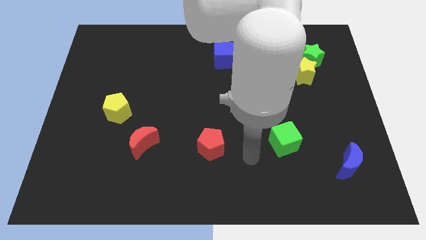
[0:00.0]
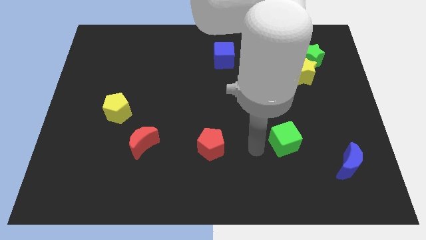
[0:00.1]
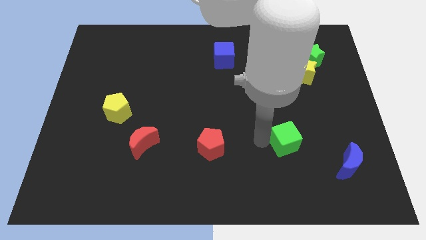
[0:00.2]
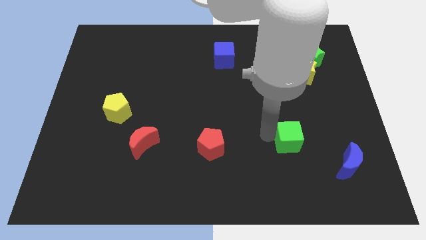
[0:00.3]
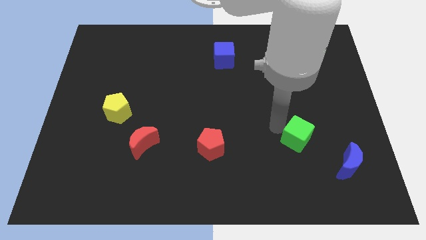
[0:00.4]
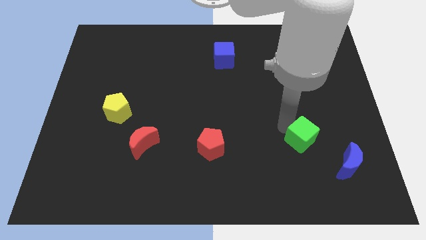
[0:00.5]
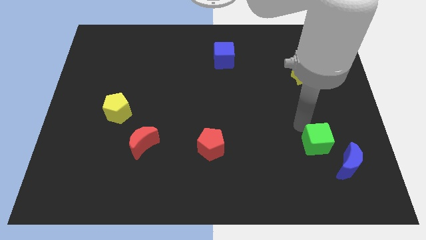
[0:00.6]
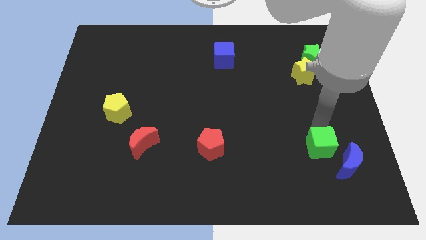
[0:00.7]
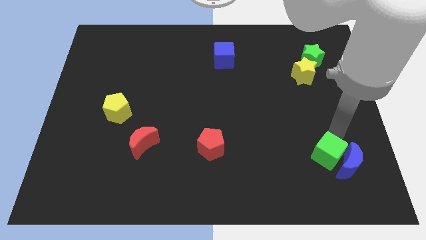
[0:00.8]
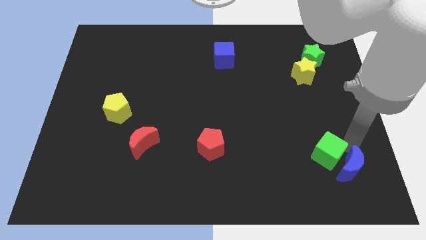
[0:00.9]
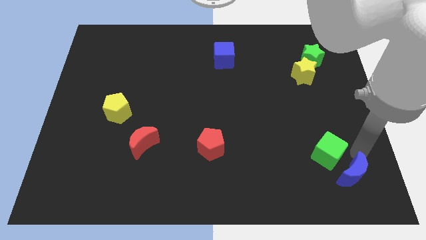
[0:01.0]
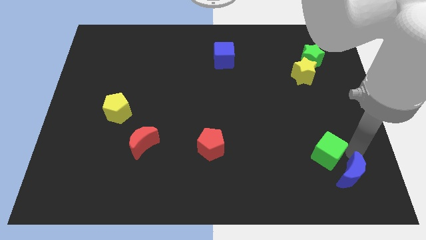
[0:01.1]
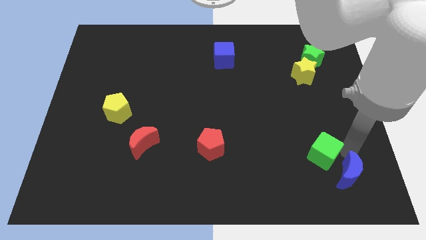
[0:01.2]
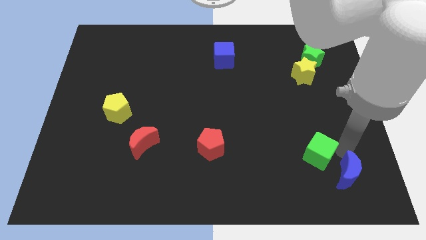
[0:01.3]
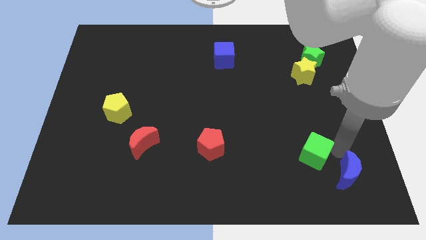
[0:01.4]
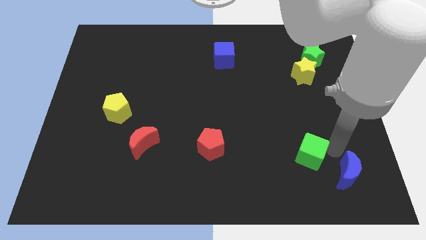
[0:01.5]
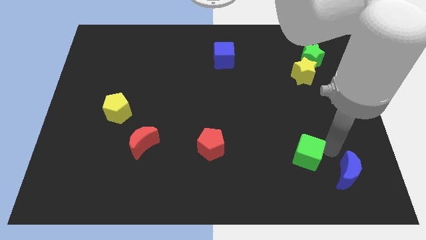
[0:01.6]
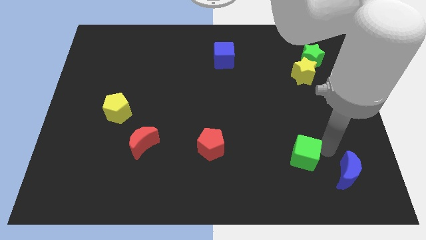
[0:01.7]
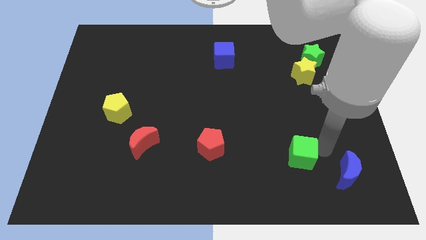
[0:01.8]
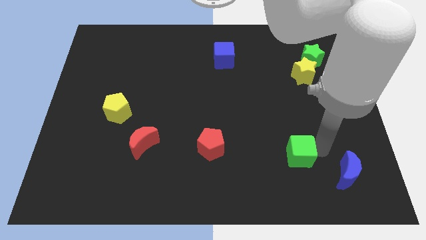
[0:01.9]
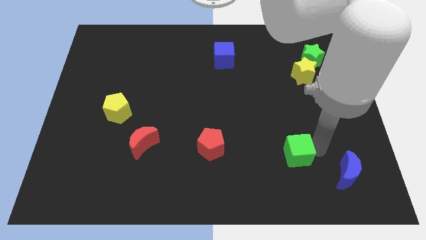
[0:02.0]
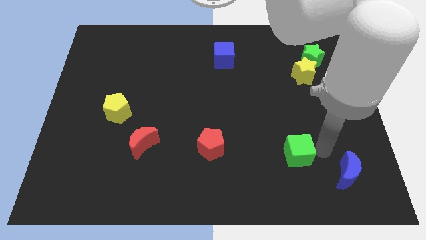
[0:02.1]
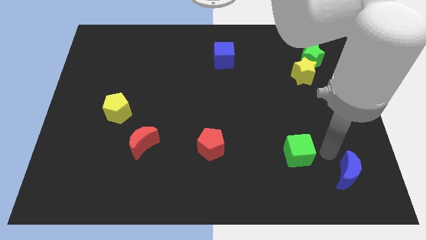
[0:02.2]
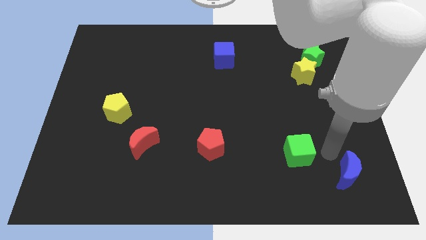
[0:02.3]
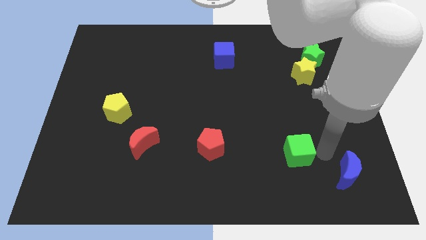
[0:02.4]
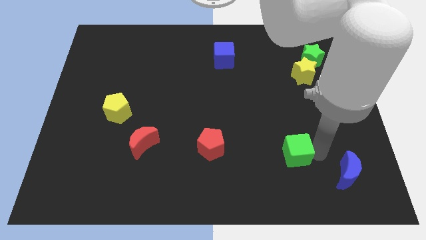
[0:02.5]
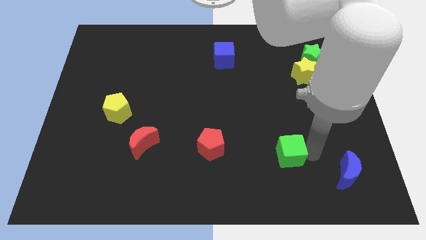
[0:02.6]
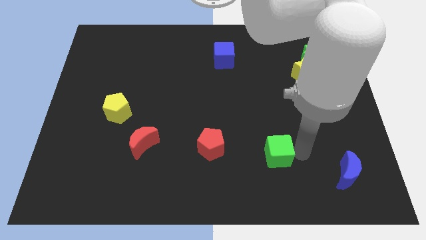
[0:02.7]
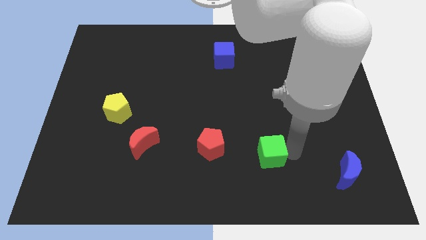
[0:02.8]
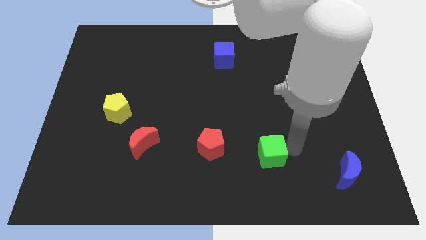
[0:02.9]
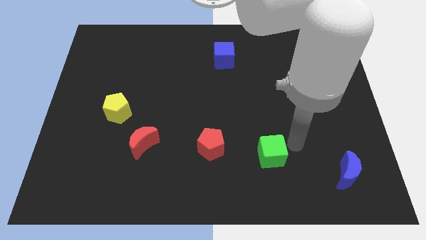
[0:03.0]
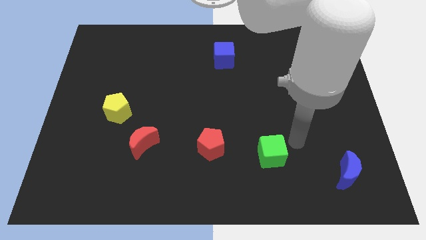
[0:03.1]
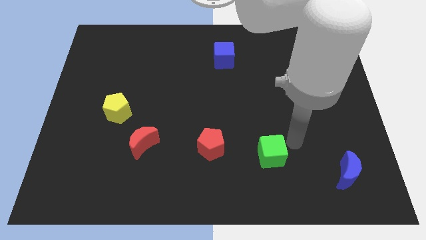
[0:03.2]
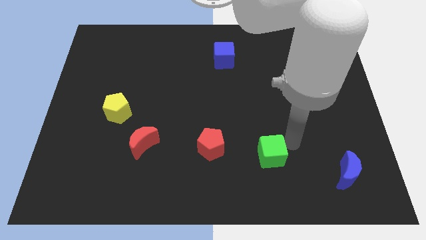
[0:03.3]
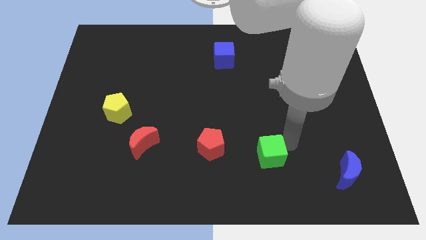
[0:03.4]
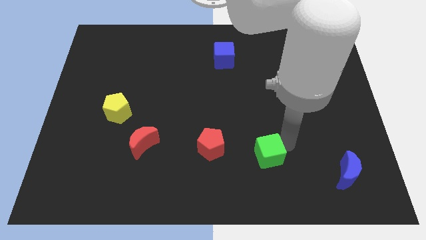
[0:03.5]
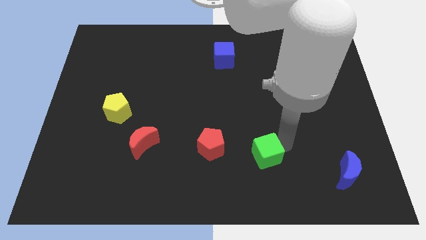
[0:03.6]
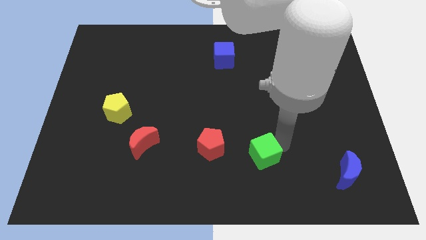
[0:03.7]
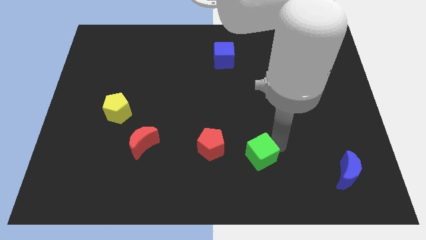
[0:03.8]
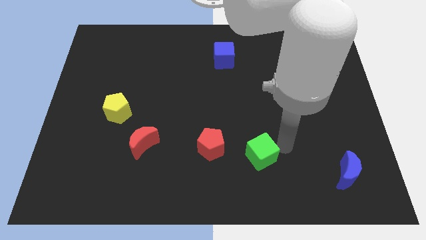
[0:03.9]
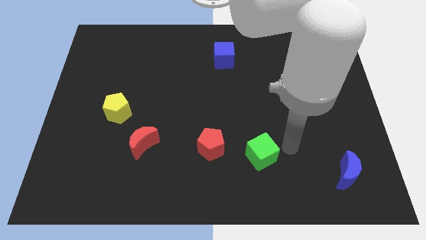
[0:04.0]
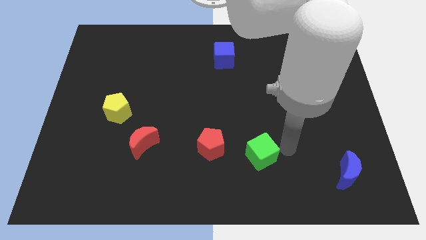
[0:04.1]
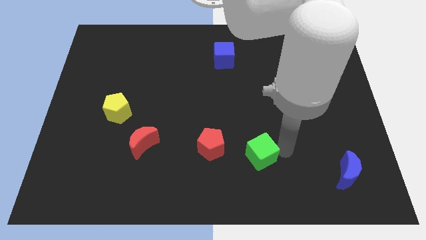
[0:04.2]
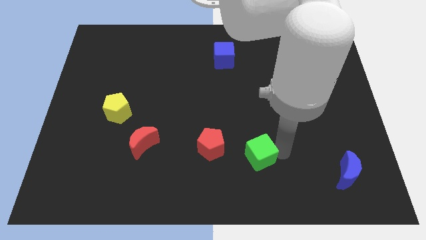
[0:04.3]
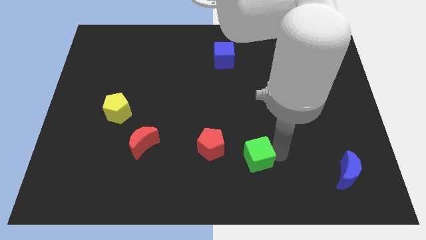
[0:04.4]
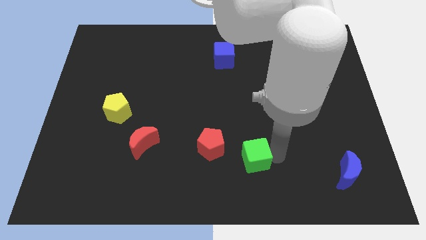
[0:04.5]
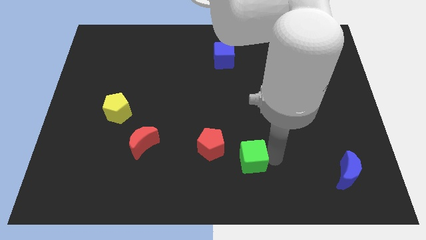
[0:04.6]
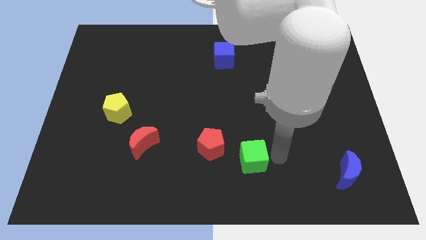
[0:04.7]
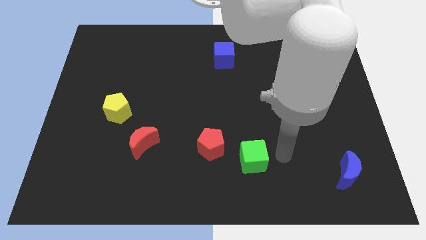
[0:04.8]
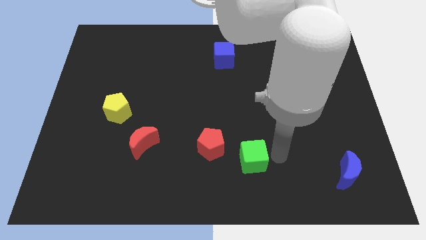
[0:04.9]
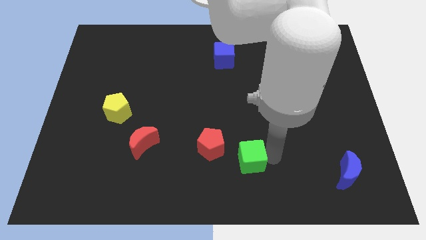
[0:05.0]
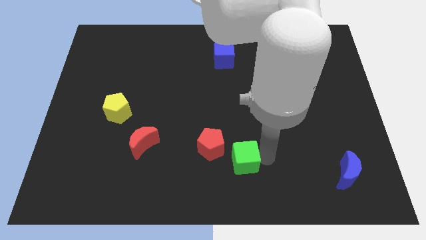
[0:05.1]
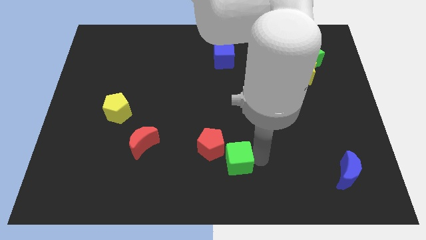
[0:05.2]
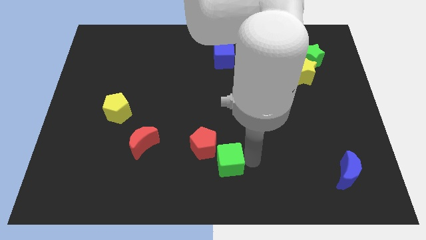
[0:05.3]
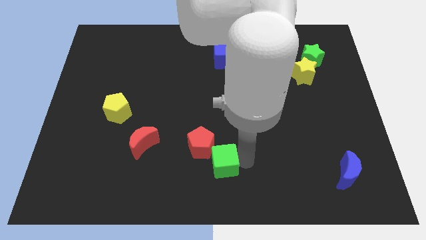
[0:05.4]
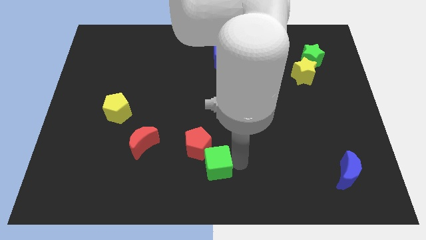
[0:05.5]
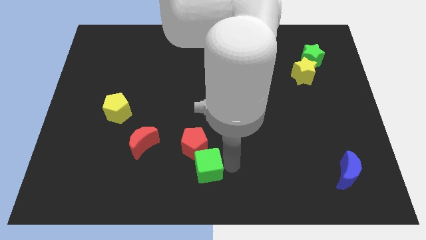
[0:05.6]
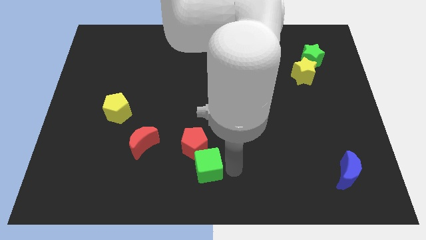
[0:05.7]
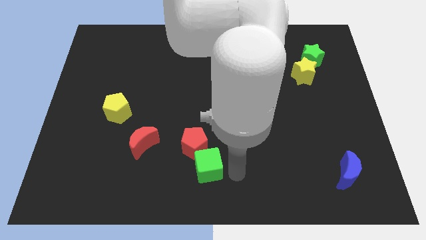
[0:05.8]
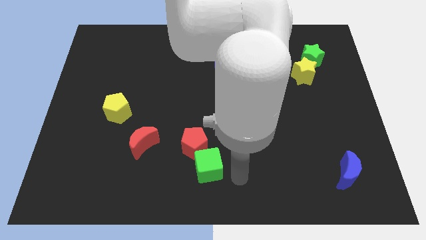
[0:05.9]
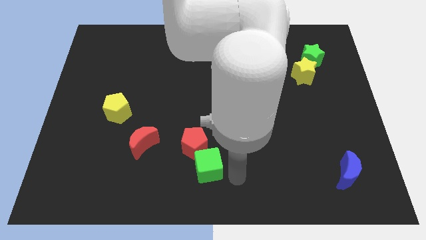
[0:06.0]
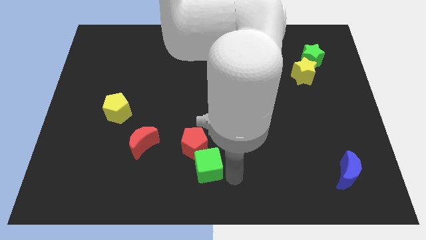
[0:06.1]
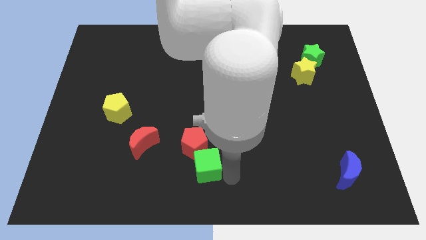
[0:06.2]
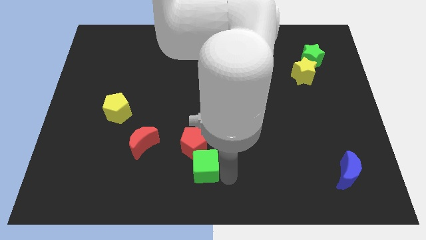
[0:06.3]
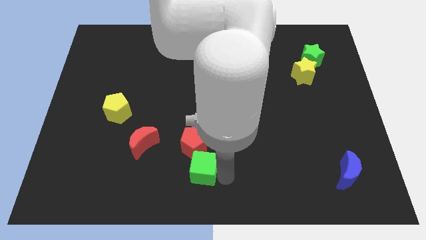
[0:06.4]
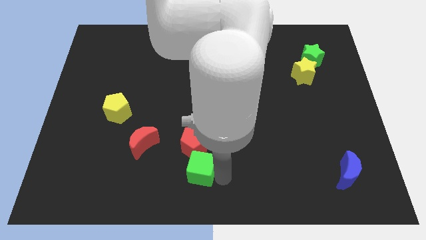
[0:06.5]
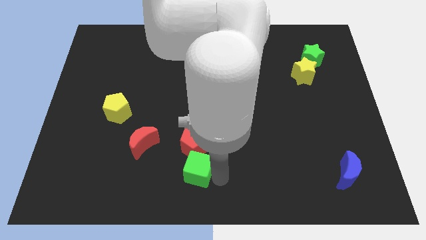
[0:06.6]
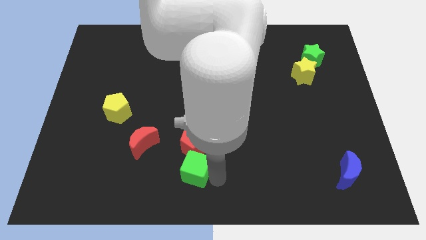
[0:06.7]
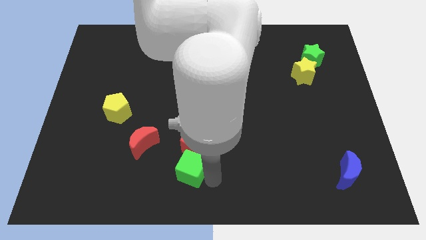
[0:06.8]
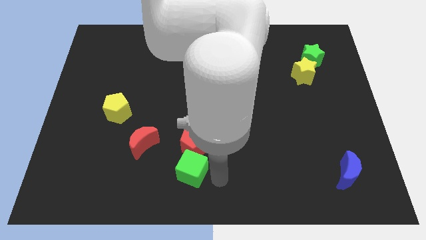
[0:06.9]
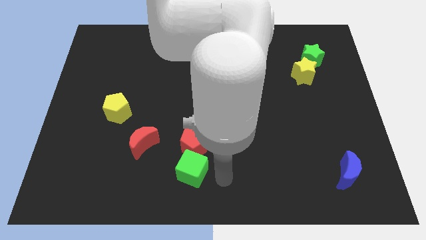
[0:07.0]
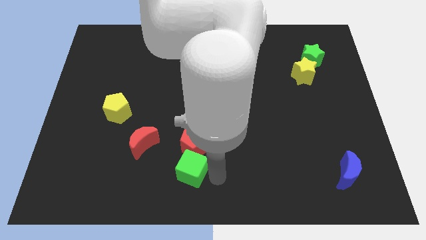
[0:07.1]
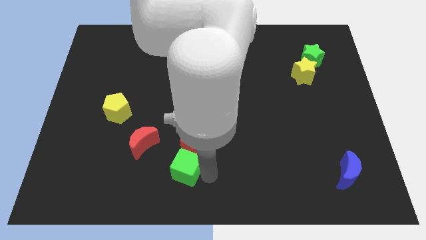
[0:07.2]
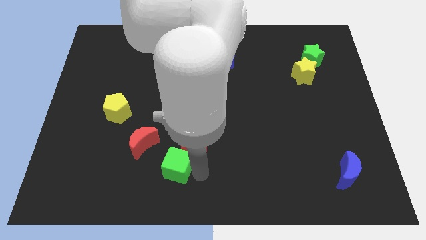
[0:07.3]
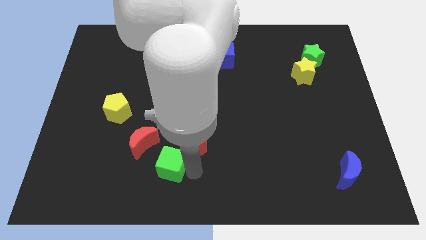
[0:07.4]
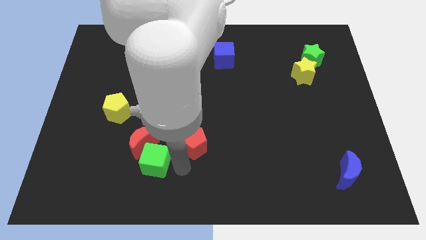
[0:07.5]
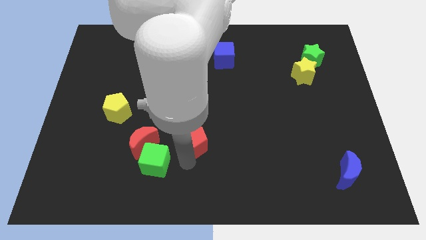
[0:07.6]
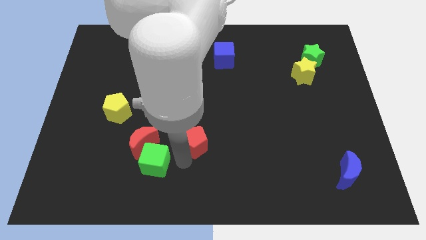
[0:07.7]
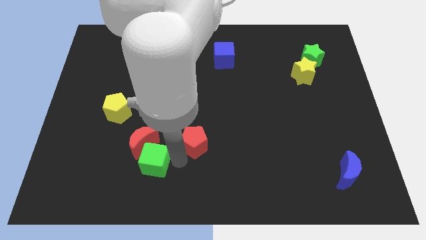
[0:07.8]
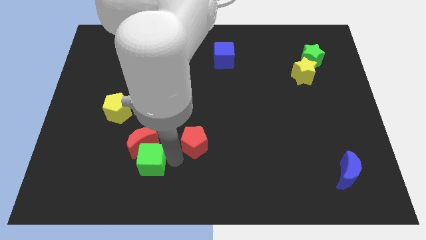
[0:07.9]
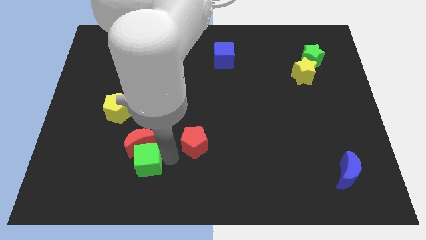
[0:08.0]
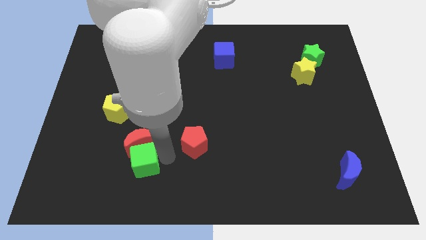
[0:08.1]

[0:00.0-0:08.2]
push the green cube diagonally down and to the left of the red moon
